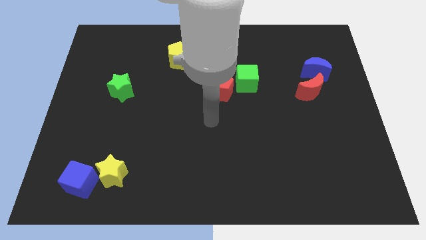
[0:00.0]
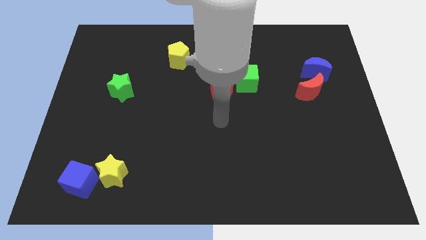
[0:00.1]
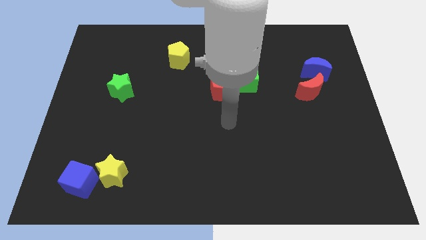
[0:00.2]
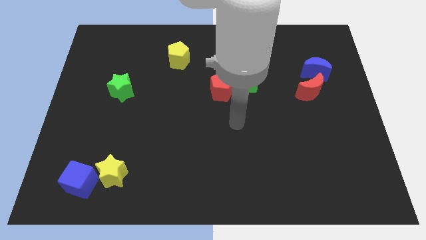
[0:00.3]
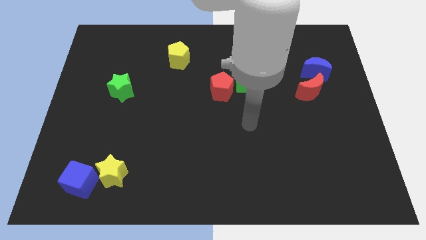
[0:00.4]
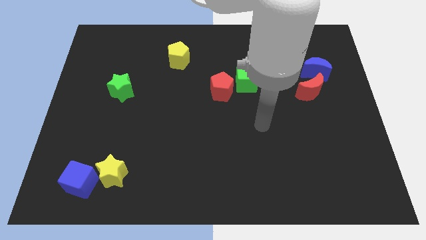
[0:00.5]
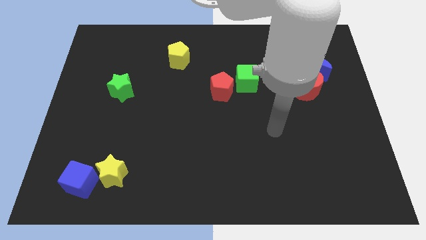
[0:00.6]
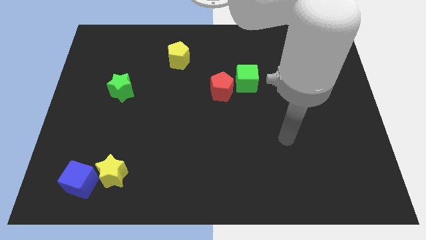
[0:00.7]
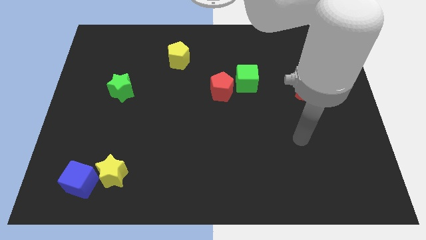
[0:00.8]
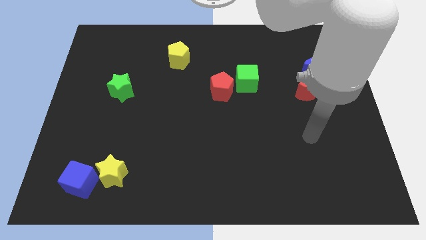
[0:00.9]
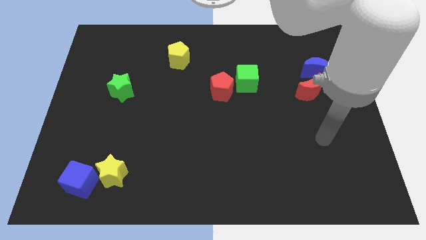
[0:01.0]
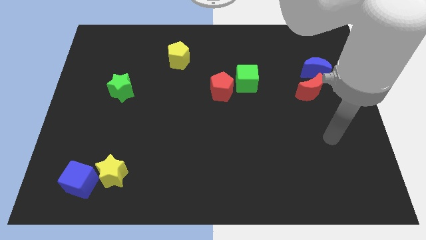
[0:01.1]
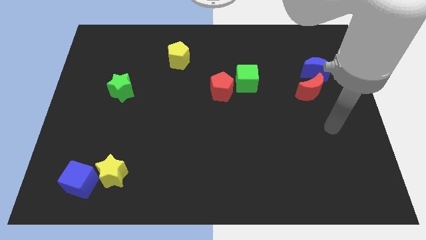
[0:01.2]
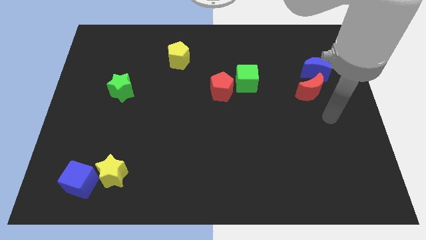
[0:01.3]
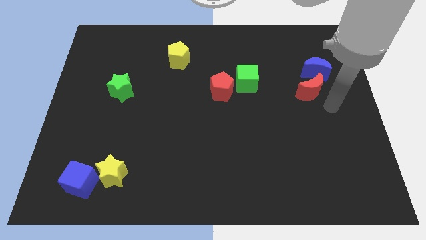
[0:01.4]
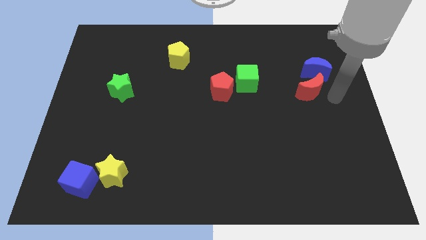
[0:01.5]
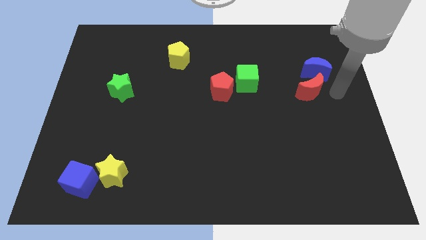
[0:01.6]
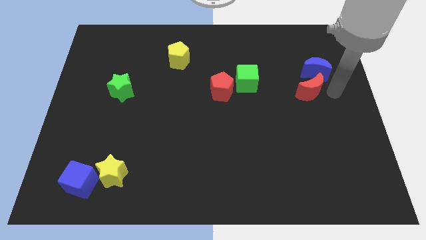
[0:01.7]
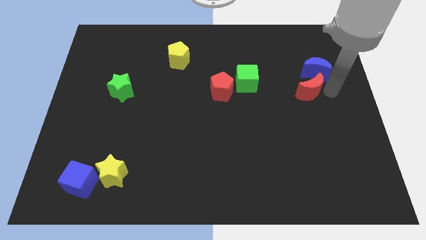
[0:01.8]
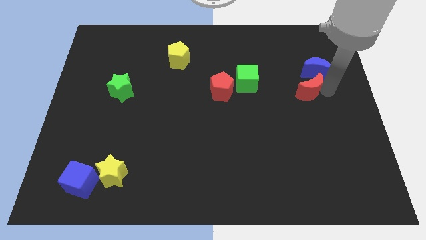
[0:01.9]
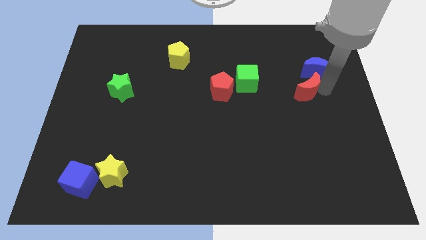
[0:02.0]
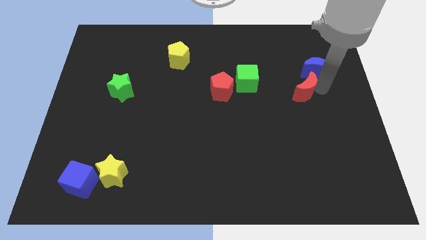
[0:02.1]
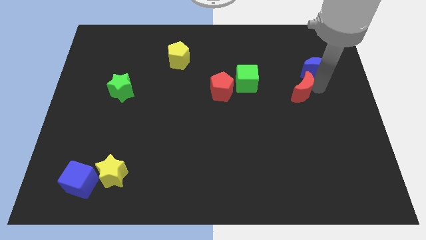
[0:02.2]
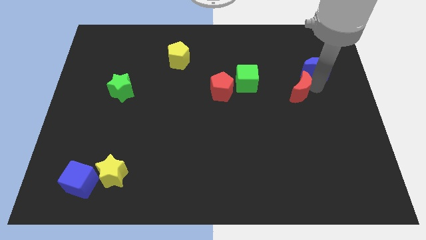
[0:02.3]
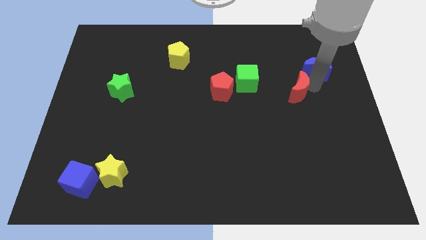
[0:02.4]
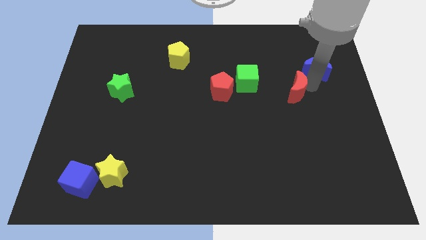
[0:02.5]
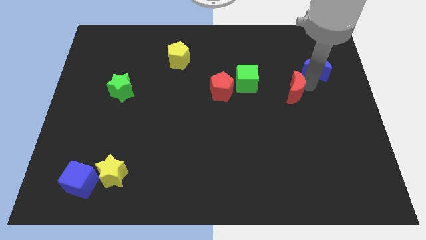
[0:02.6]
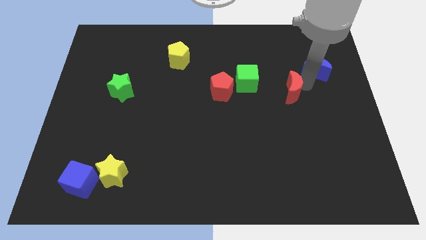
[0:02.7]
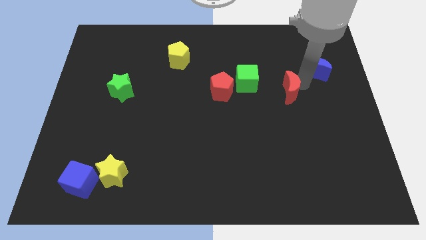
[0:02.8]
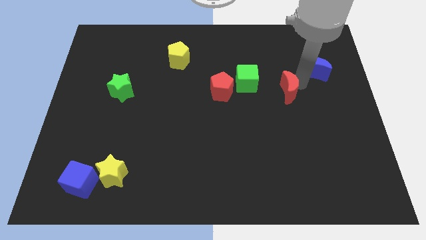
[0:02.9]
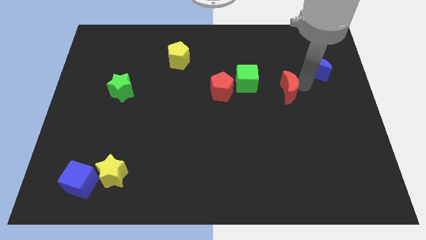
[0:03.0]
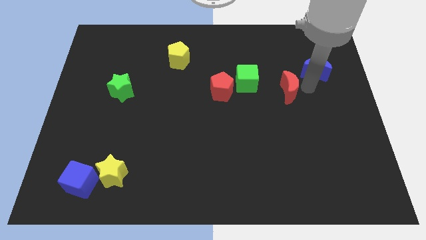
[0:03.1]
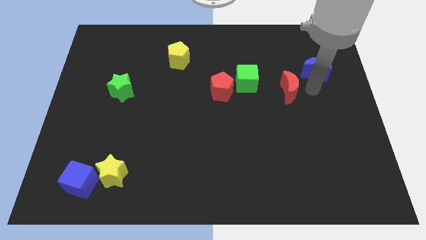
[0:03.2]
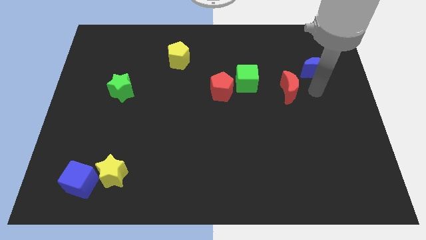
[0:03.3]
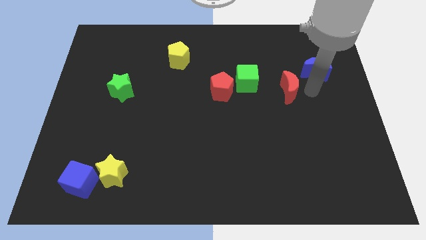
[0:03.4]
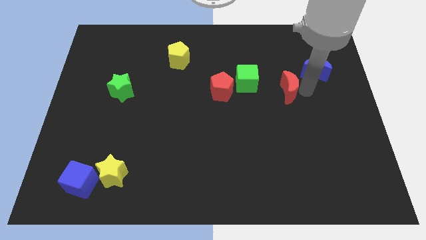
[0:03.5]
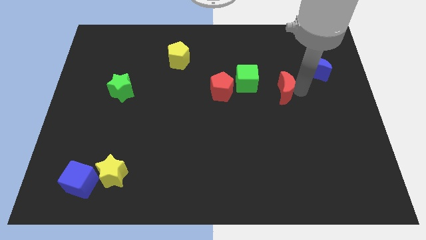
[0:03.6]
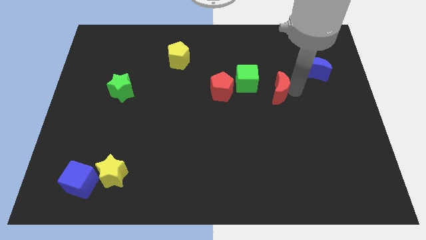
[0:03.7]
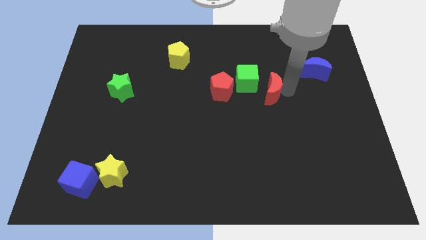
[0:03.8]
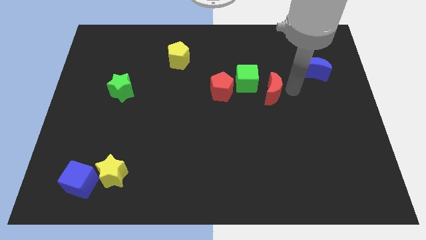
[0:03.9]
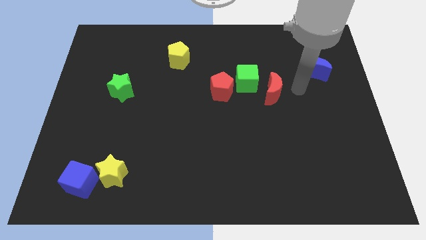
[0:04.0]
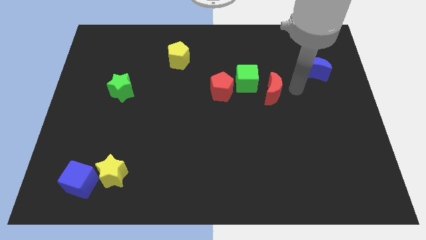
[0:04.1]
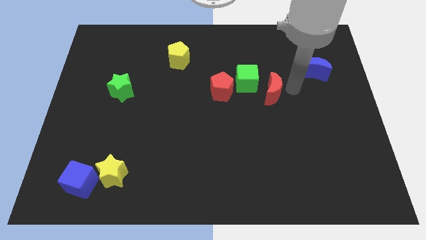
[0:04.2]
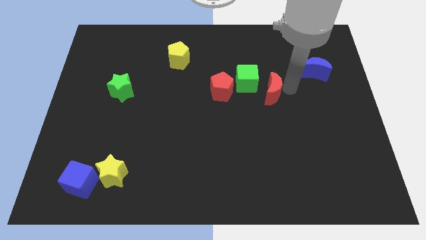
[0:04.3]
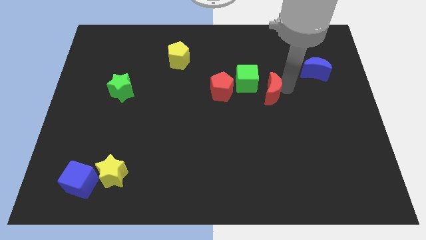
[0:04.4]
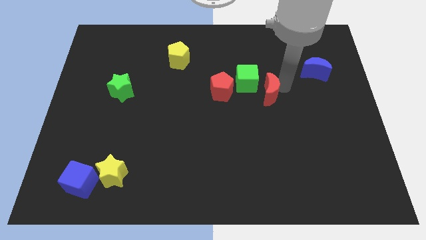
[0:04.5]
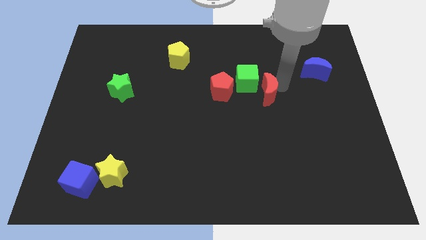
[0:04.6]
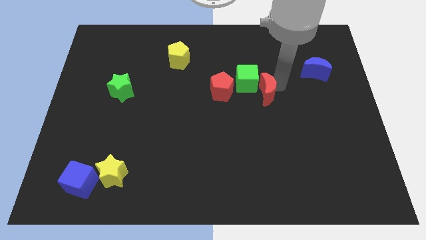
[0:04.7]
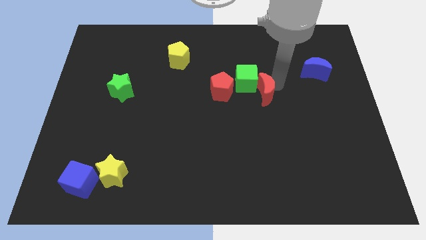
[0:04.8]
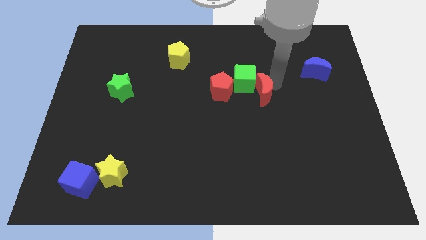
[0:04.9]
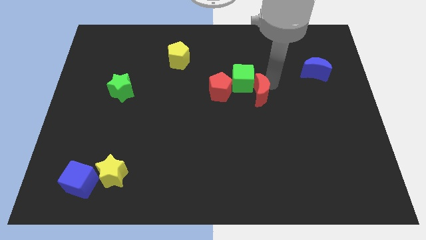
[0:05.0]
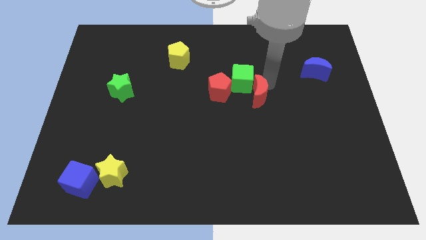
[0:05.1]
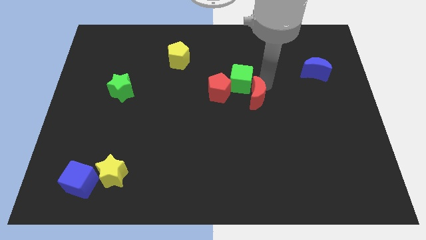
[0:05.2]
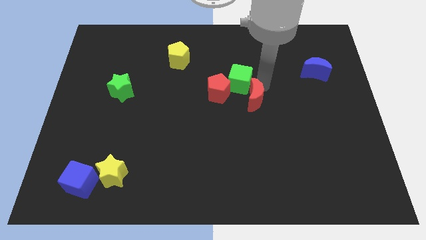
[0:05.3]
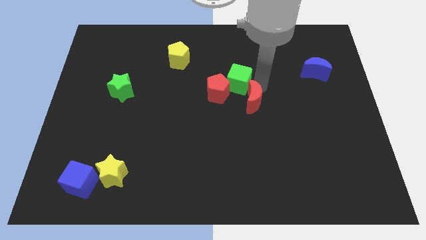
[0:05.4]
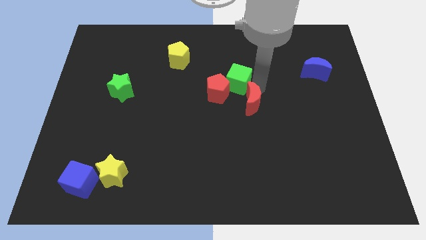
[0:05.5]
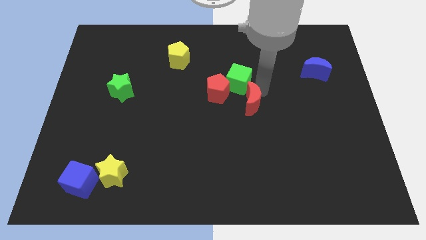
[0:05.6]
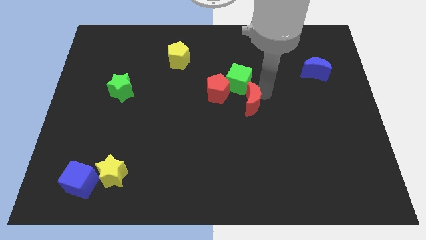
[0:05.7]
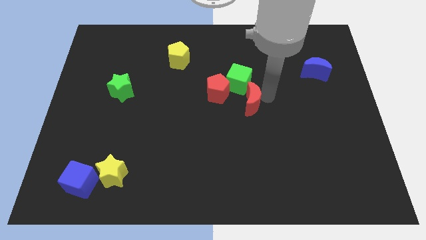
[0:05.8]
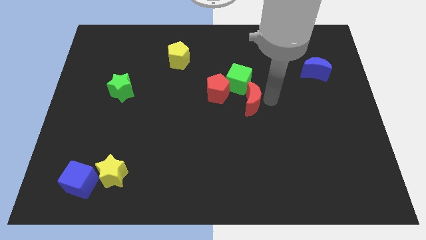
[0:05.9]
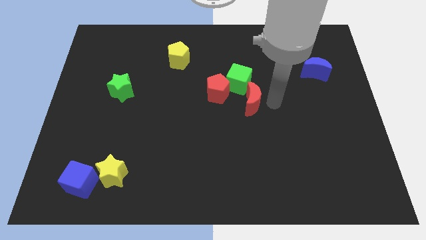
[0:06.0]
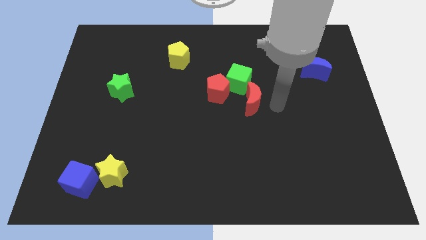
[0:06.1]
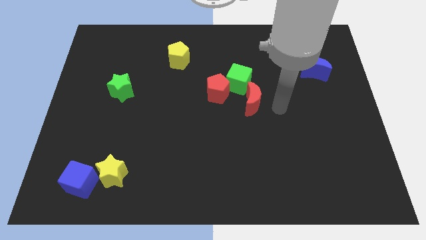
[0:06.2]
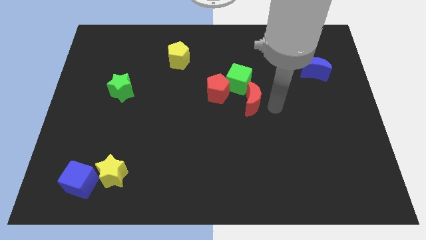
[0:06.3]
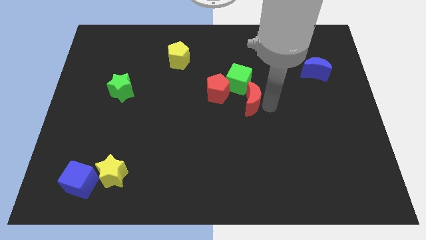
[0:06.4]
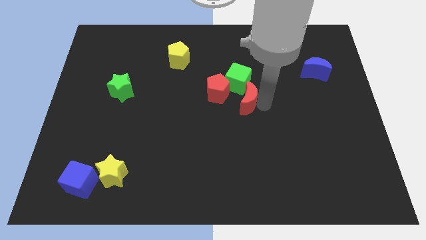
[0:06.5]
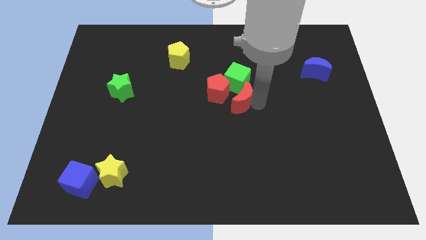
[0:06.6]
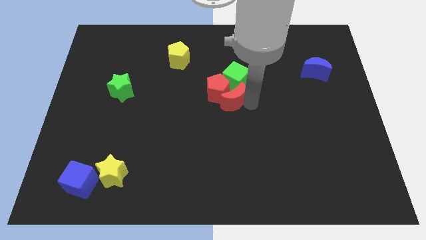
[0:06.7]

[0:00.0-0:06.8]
move the red moon towards the red pentagon
